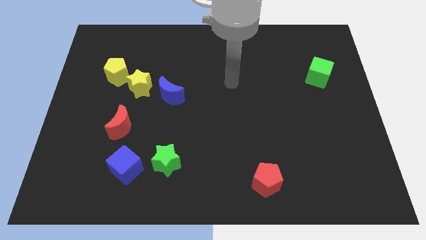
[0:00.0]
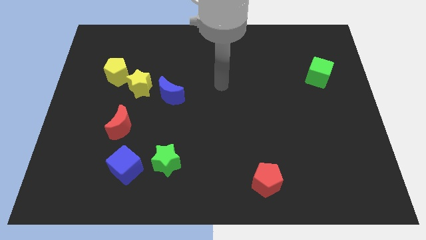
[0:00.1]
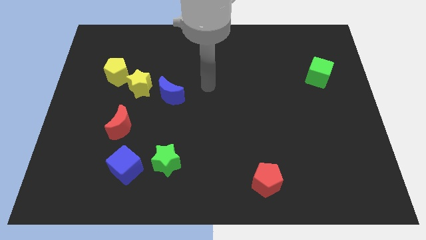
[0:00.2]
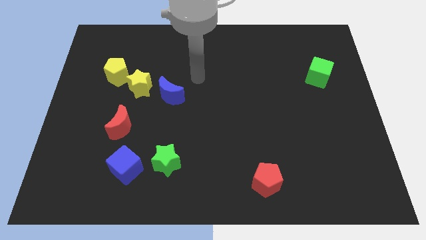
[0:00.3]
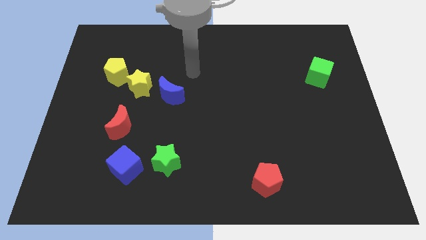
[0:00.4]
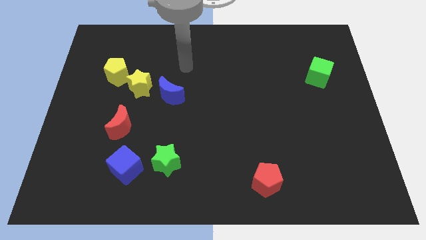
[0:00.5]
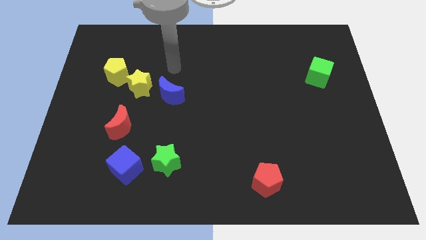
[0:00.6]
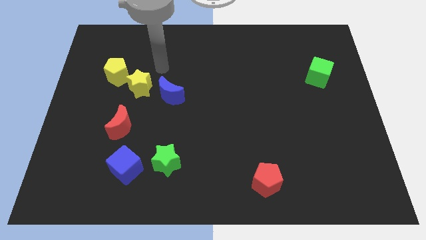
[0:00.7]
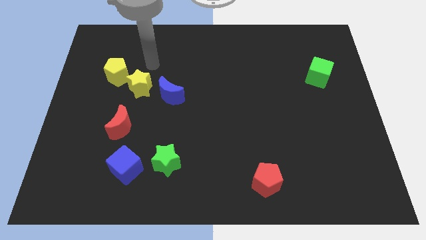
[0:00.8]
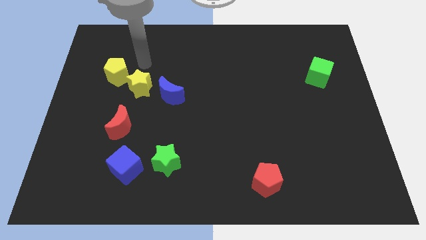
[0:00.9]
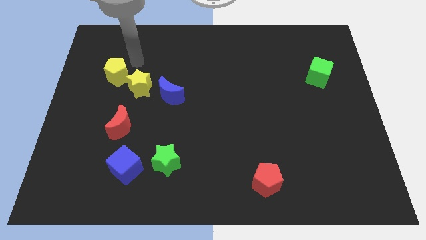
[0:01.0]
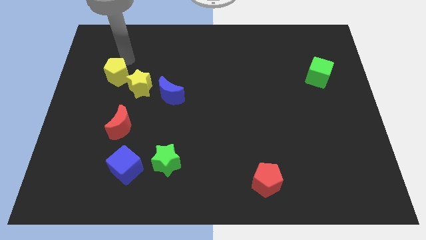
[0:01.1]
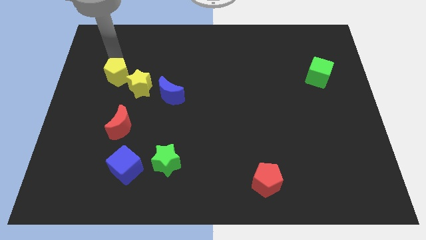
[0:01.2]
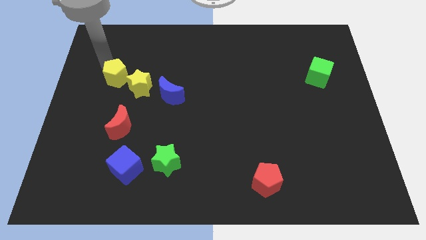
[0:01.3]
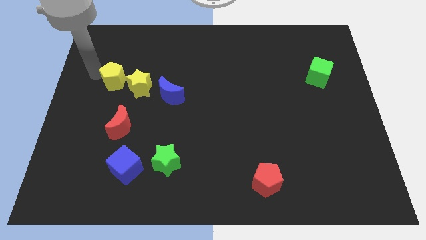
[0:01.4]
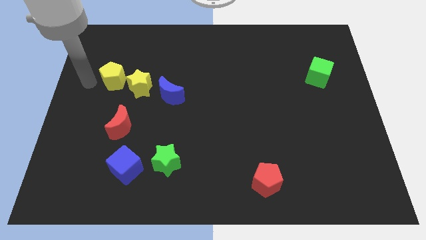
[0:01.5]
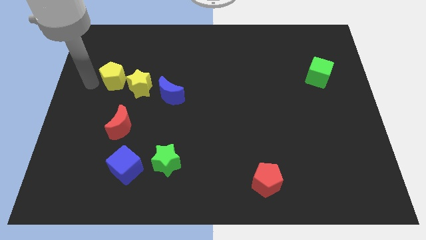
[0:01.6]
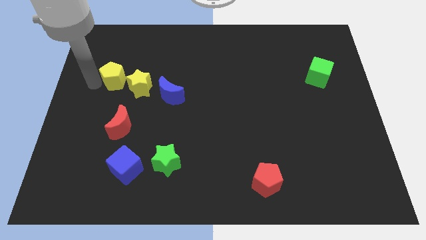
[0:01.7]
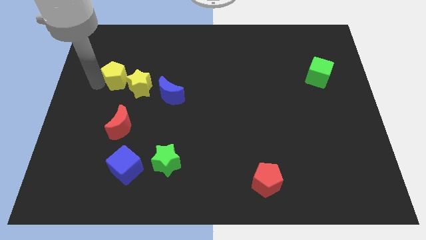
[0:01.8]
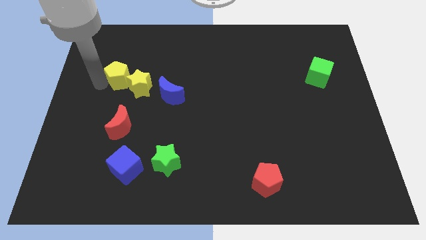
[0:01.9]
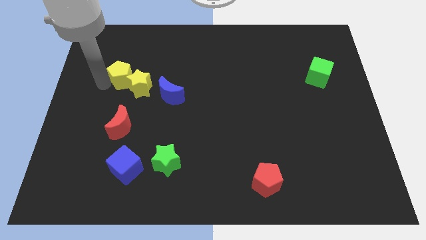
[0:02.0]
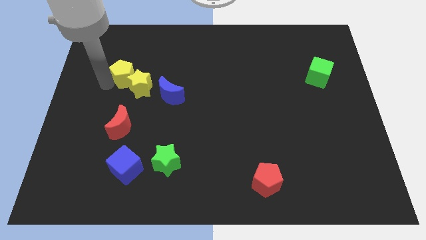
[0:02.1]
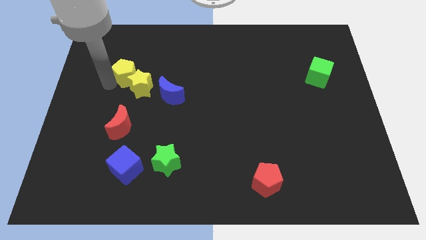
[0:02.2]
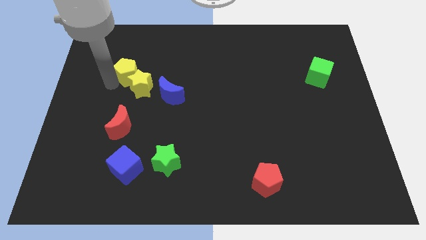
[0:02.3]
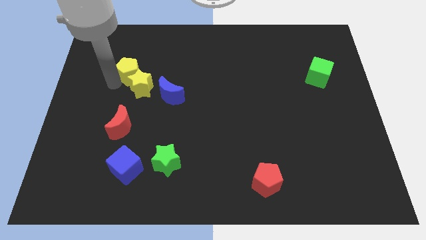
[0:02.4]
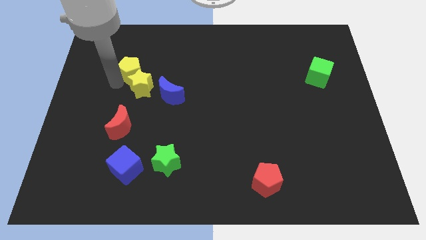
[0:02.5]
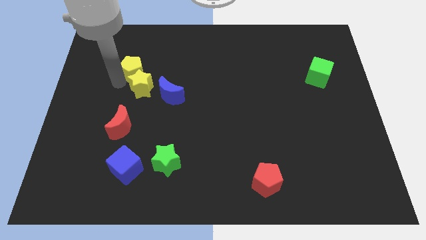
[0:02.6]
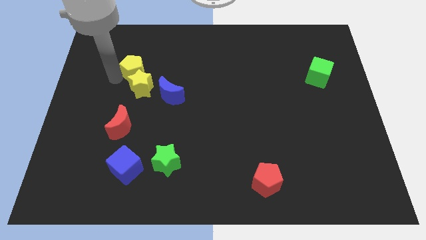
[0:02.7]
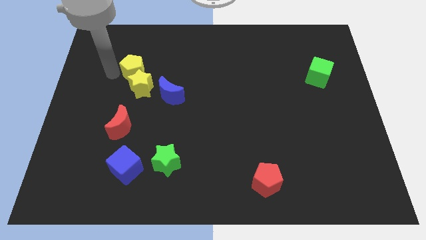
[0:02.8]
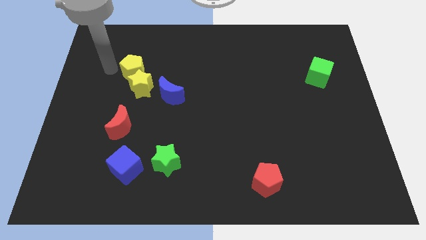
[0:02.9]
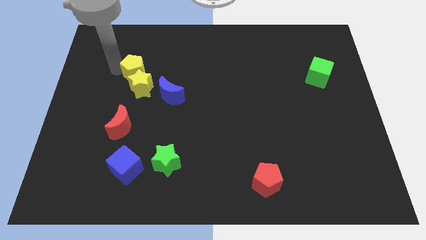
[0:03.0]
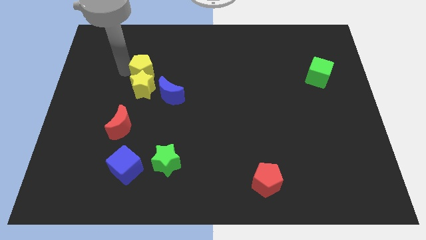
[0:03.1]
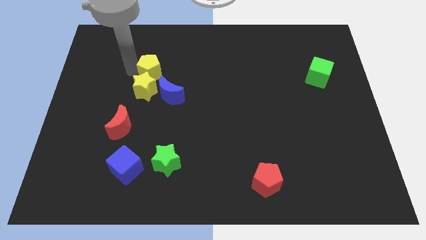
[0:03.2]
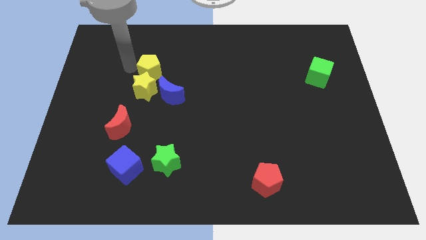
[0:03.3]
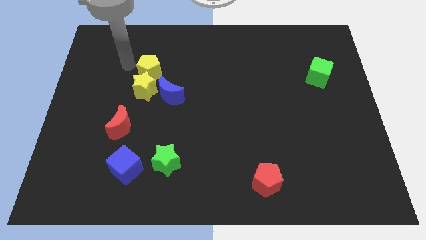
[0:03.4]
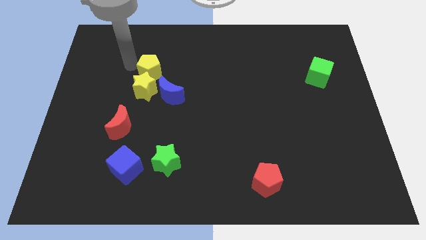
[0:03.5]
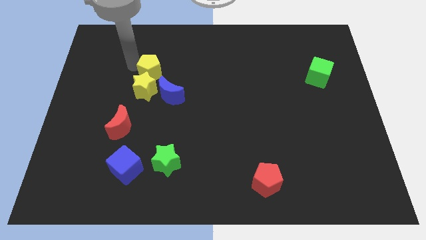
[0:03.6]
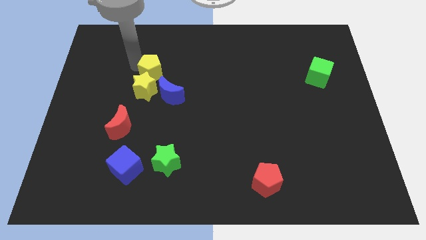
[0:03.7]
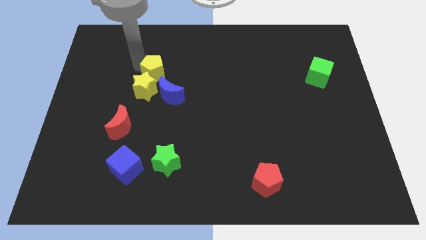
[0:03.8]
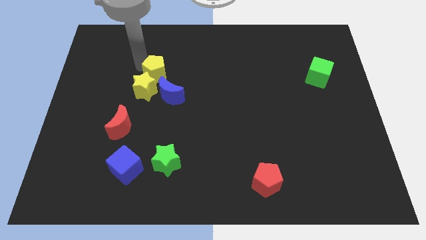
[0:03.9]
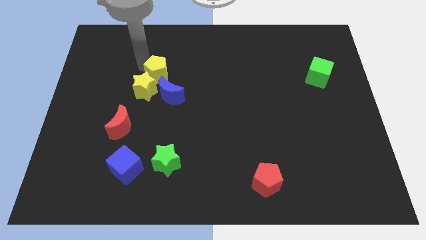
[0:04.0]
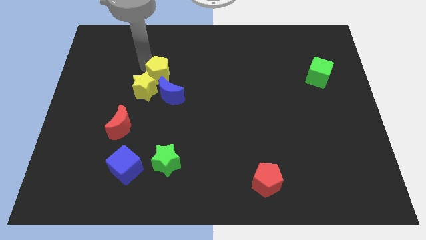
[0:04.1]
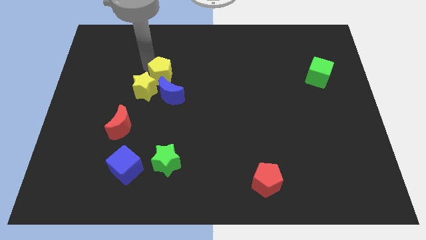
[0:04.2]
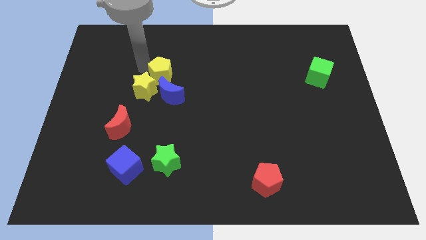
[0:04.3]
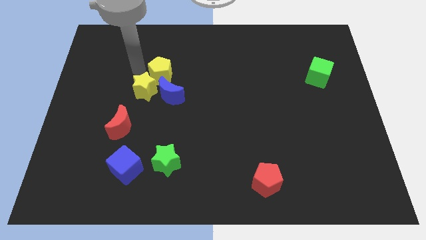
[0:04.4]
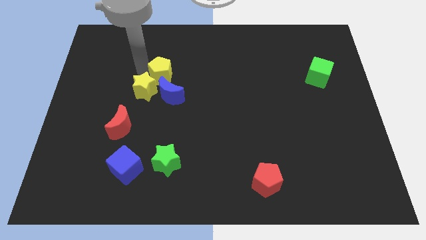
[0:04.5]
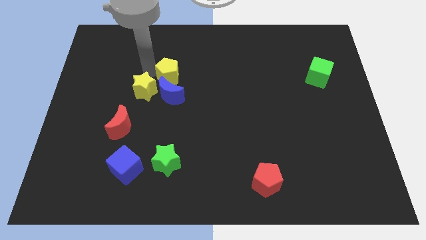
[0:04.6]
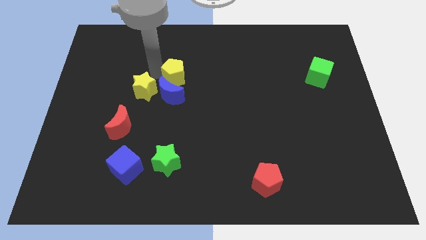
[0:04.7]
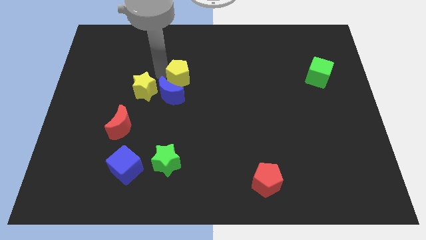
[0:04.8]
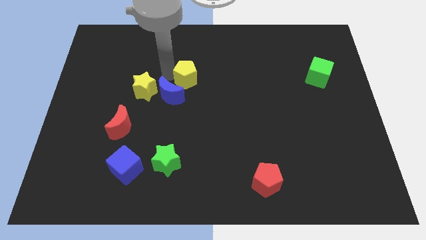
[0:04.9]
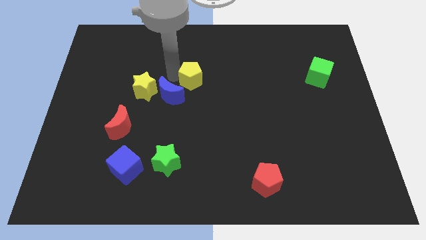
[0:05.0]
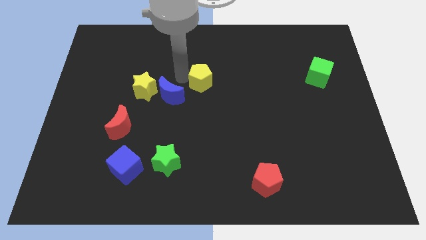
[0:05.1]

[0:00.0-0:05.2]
push the yellow pentagon to the right

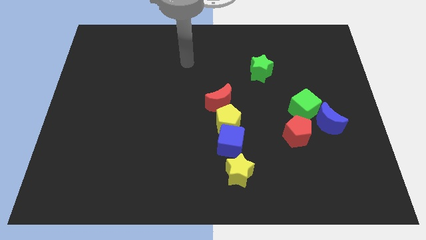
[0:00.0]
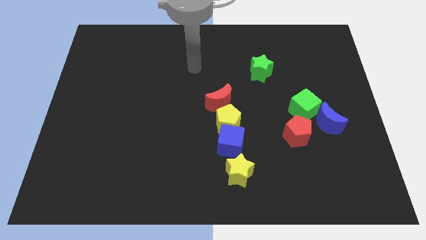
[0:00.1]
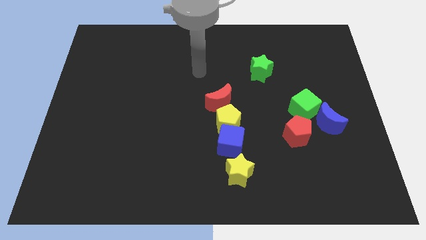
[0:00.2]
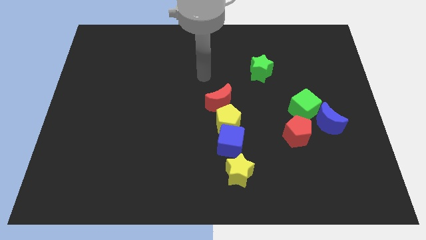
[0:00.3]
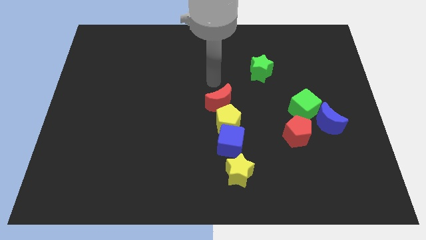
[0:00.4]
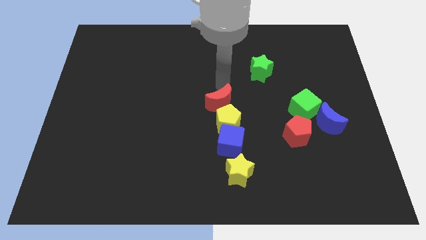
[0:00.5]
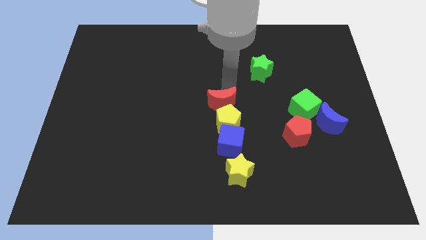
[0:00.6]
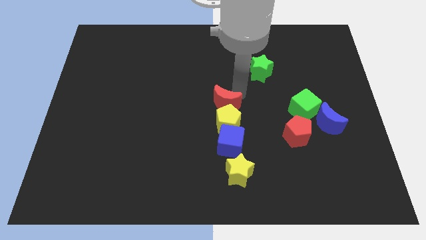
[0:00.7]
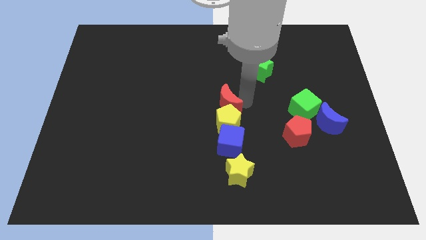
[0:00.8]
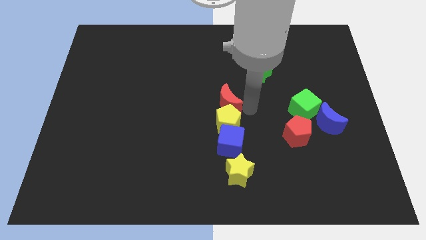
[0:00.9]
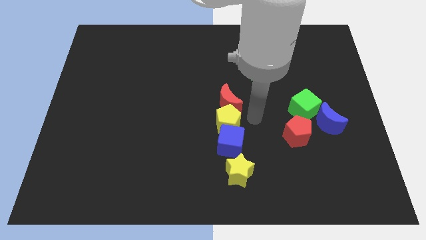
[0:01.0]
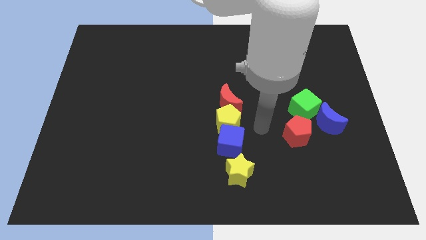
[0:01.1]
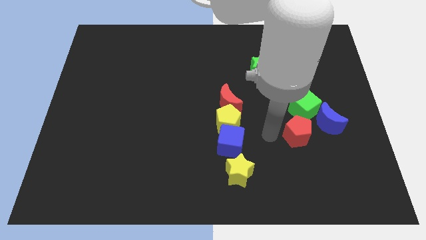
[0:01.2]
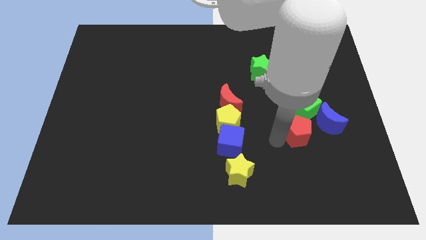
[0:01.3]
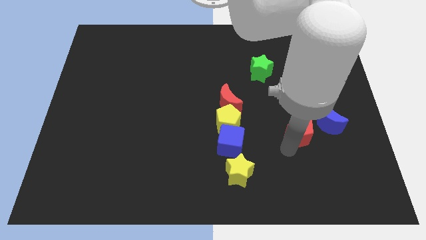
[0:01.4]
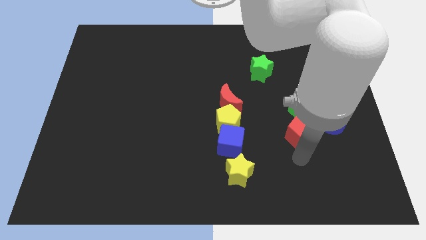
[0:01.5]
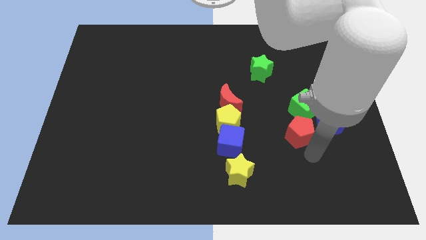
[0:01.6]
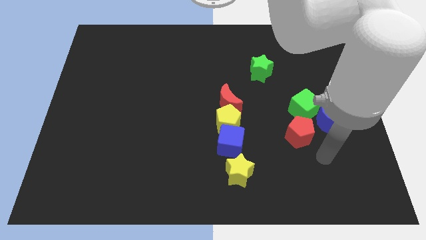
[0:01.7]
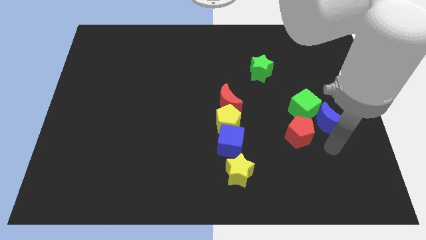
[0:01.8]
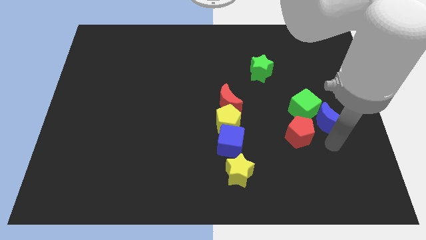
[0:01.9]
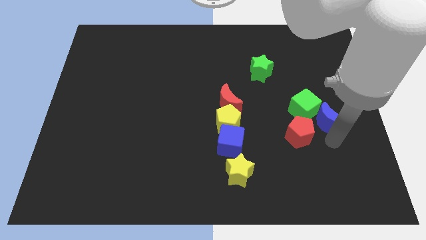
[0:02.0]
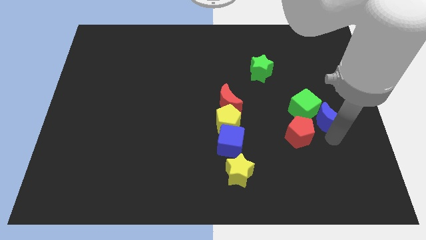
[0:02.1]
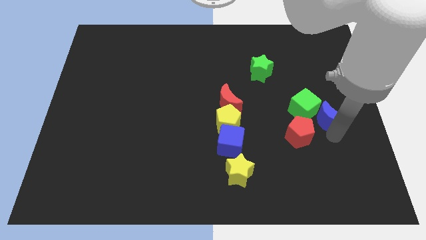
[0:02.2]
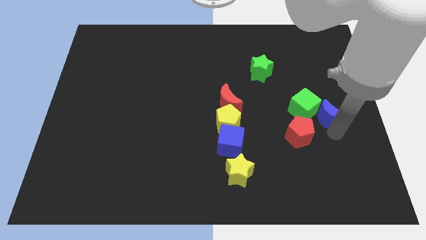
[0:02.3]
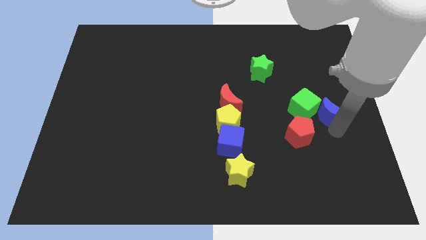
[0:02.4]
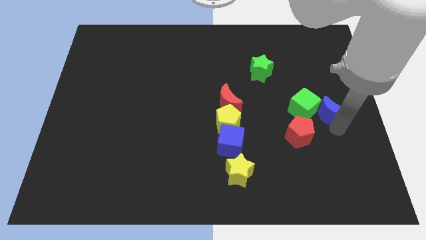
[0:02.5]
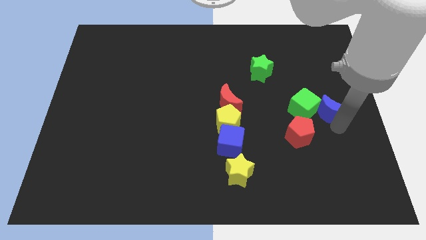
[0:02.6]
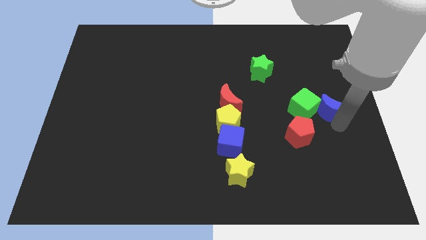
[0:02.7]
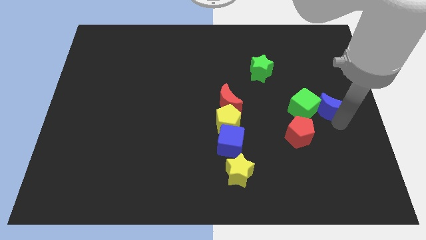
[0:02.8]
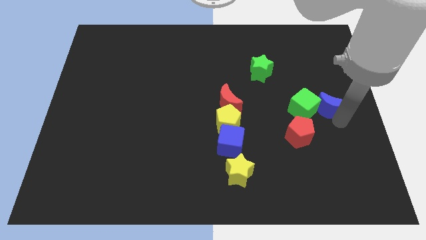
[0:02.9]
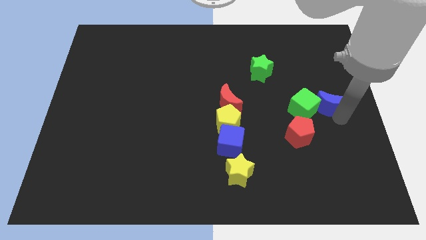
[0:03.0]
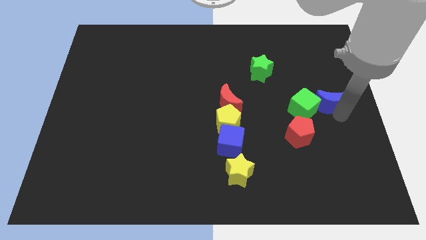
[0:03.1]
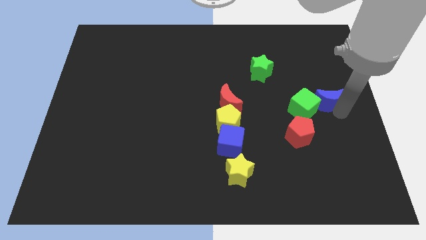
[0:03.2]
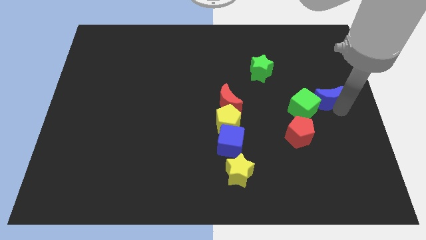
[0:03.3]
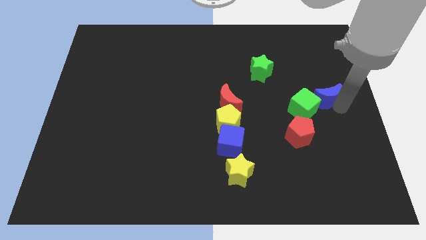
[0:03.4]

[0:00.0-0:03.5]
move the blue moon up a little
